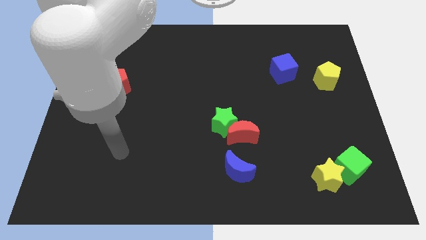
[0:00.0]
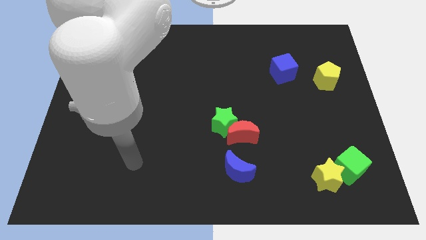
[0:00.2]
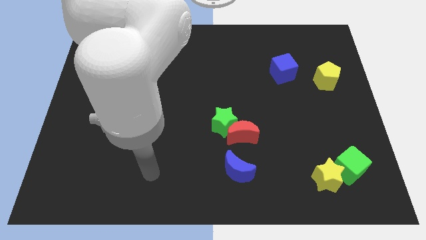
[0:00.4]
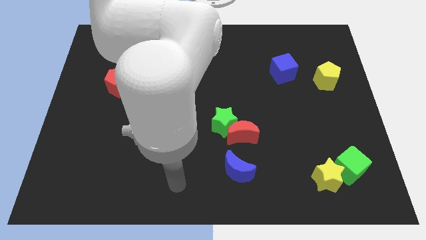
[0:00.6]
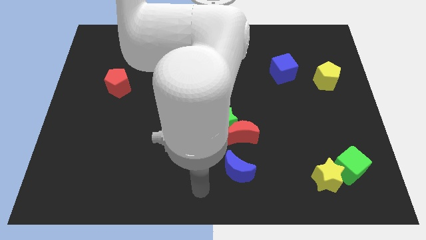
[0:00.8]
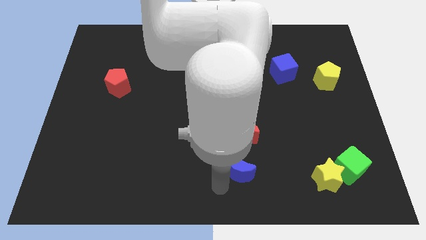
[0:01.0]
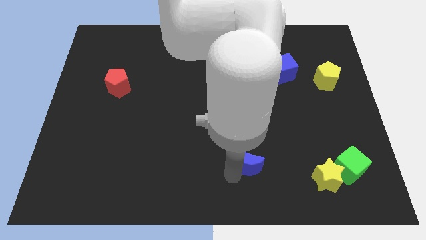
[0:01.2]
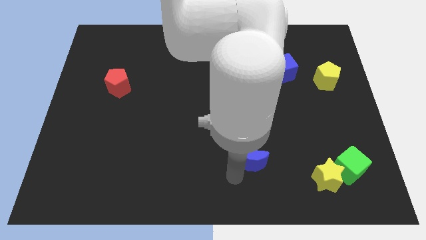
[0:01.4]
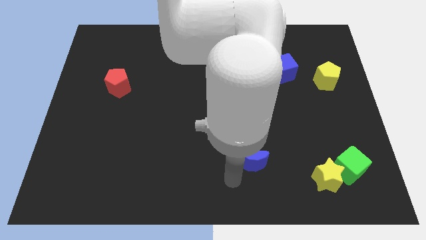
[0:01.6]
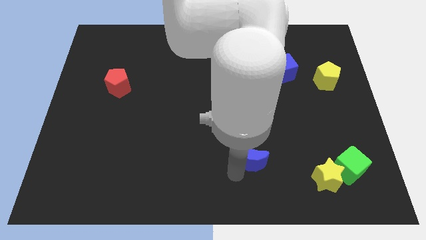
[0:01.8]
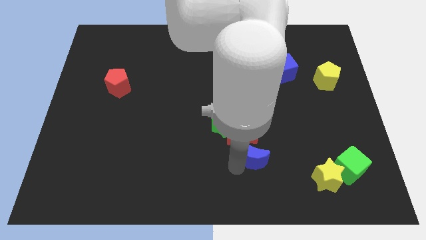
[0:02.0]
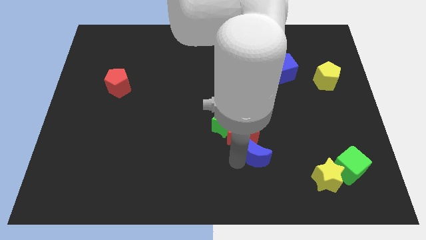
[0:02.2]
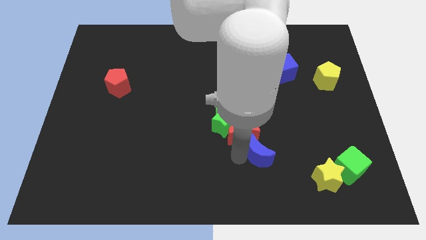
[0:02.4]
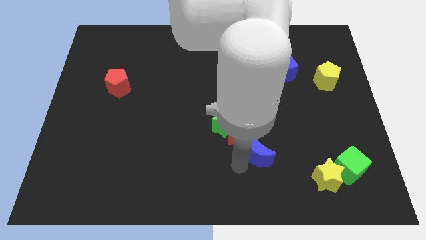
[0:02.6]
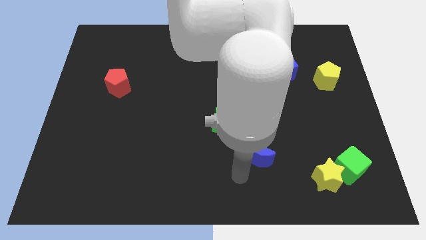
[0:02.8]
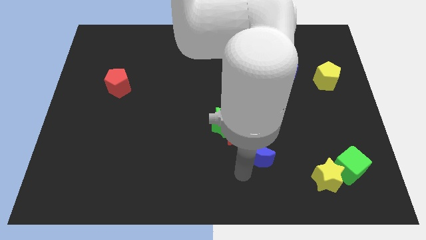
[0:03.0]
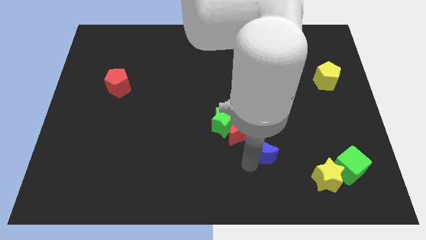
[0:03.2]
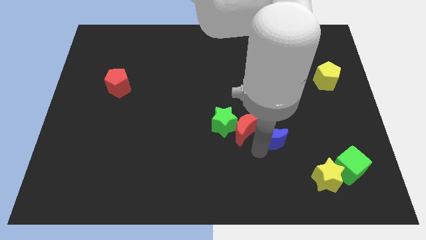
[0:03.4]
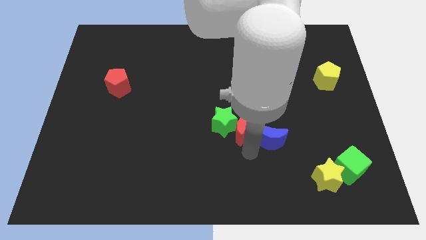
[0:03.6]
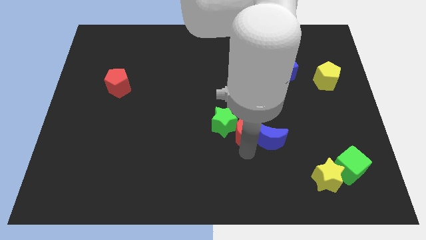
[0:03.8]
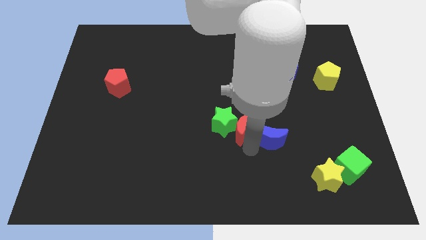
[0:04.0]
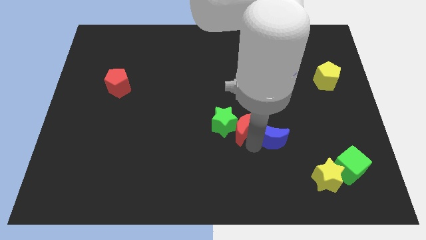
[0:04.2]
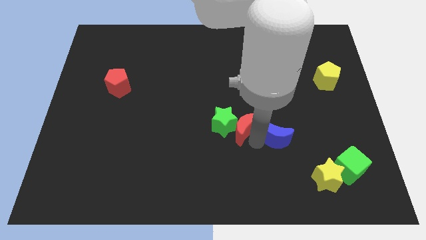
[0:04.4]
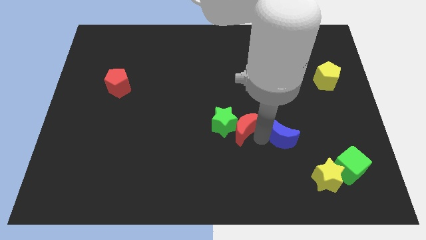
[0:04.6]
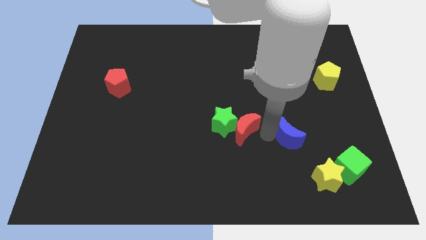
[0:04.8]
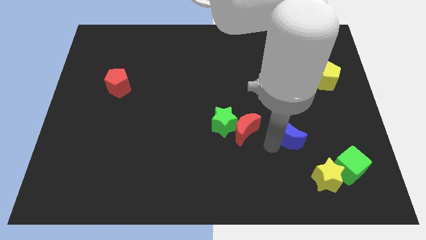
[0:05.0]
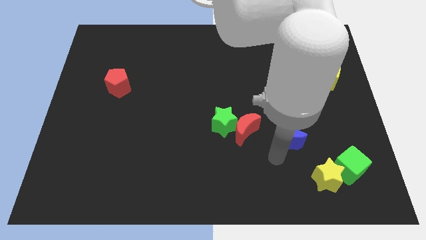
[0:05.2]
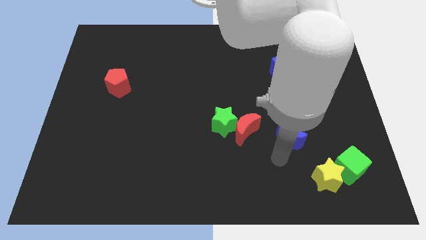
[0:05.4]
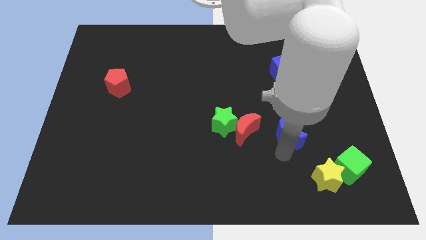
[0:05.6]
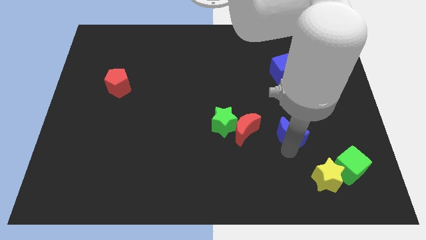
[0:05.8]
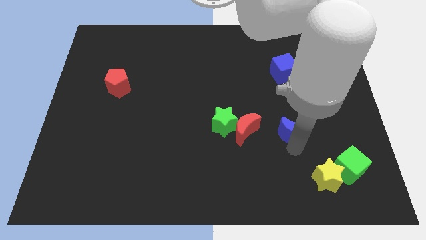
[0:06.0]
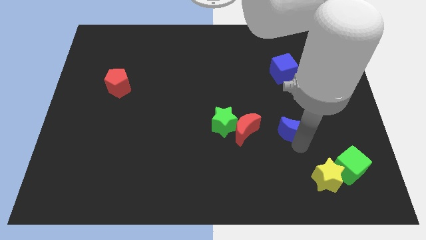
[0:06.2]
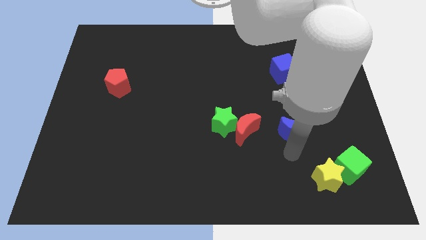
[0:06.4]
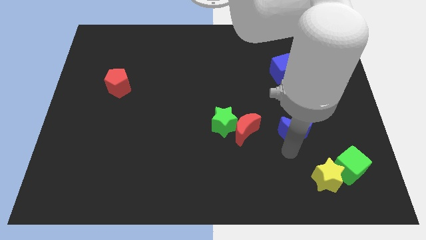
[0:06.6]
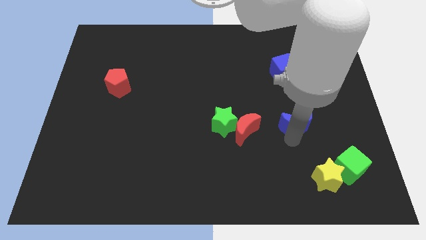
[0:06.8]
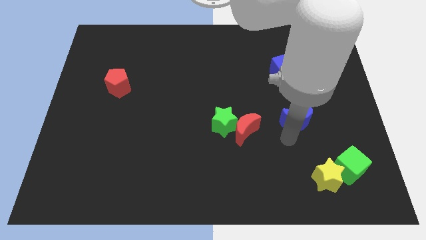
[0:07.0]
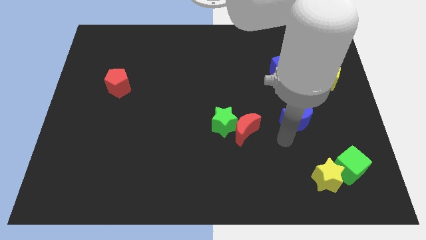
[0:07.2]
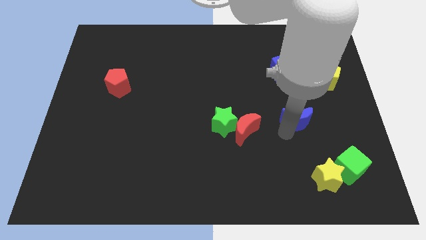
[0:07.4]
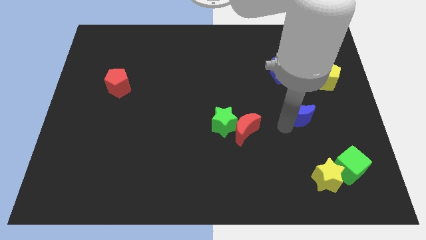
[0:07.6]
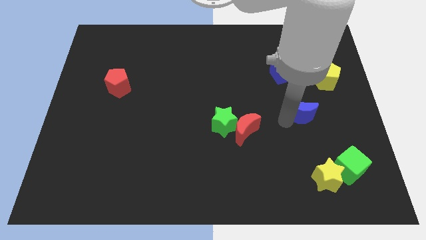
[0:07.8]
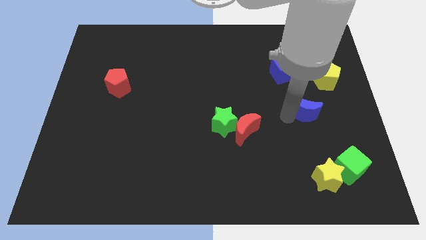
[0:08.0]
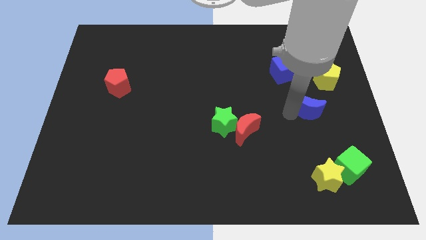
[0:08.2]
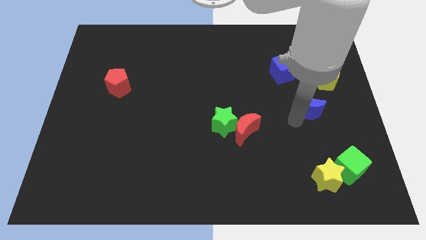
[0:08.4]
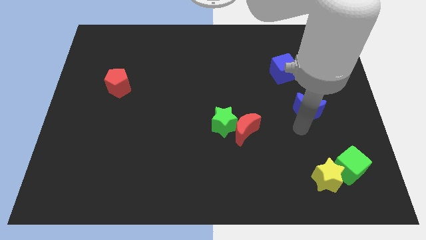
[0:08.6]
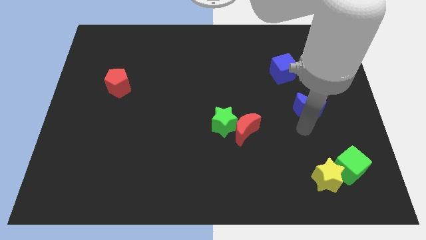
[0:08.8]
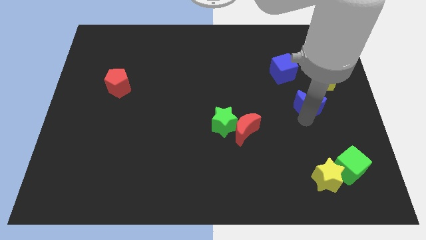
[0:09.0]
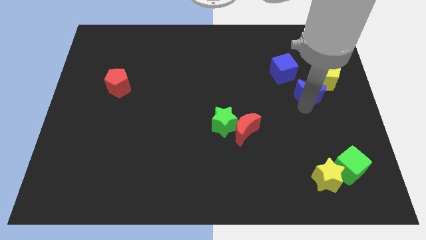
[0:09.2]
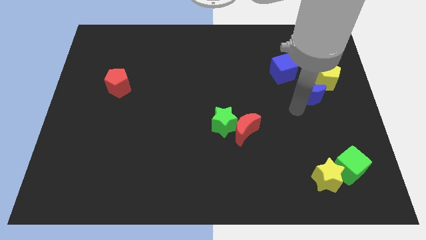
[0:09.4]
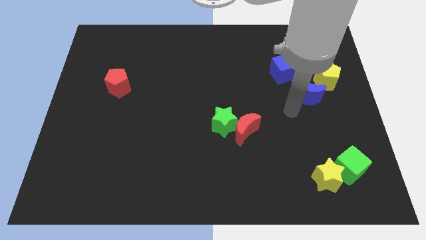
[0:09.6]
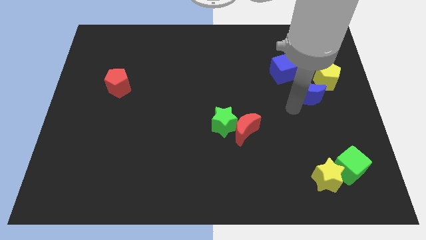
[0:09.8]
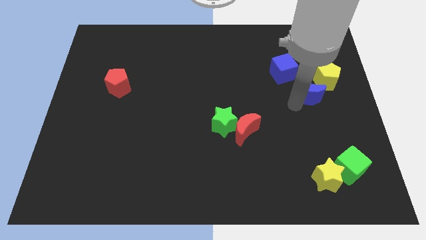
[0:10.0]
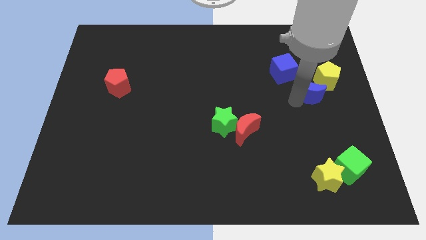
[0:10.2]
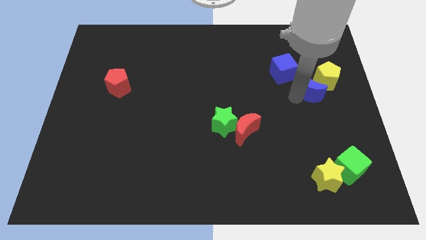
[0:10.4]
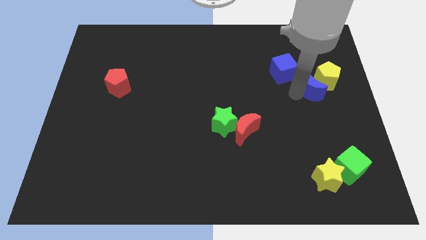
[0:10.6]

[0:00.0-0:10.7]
put the blue moon close to the yellow pentagon
